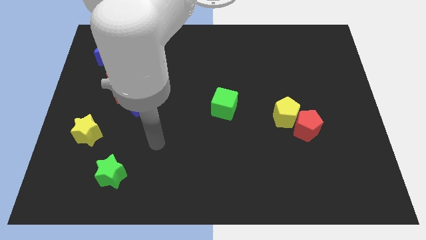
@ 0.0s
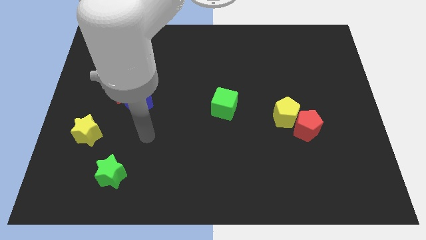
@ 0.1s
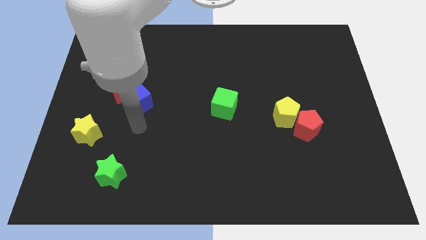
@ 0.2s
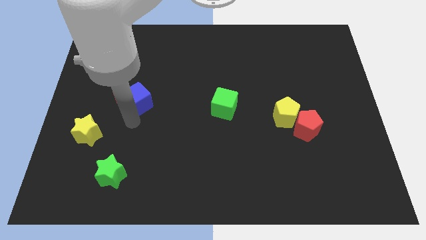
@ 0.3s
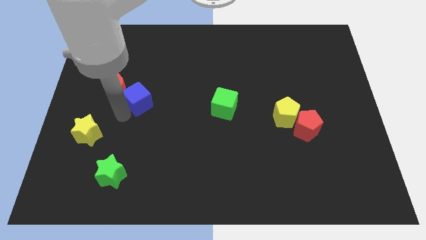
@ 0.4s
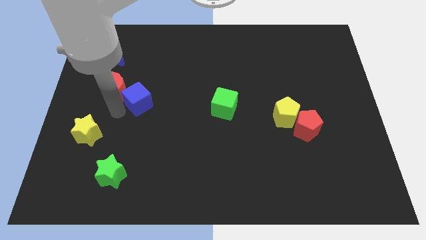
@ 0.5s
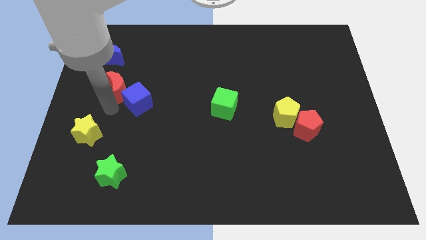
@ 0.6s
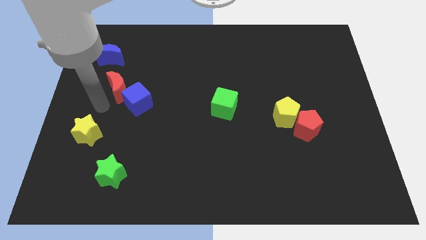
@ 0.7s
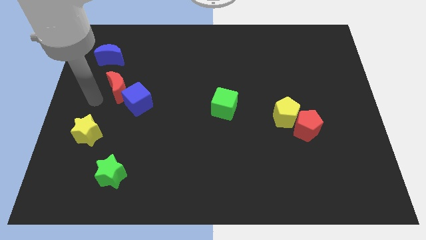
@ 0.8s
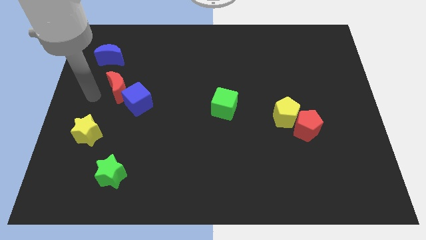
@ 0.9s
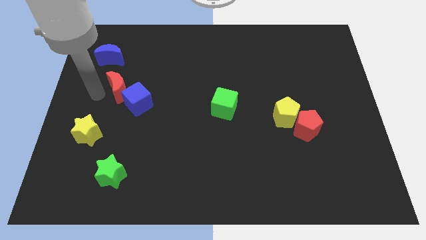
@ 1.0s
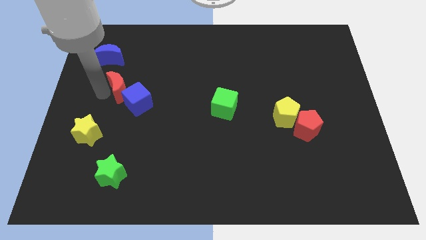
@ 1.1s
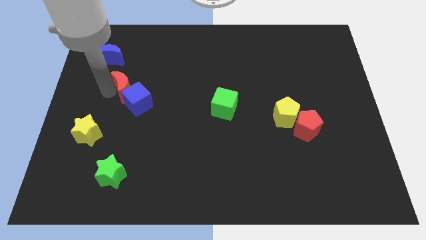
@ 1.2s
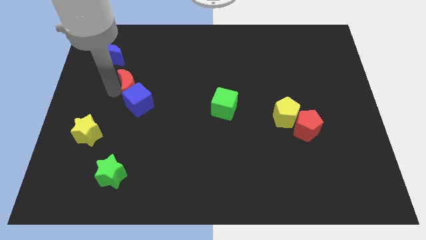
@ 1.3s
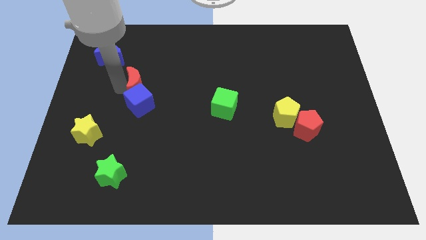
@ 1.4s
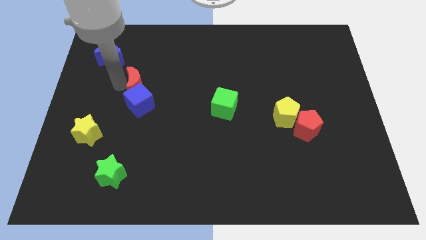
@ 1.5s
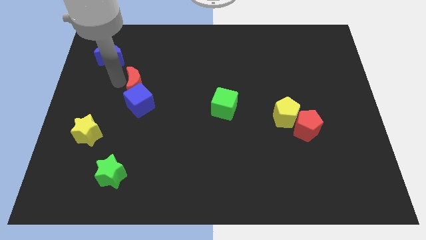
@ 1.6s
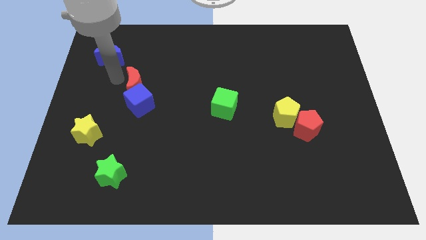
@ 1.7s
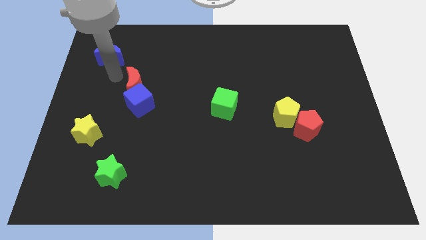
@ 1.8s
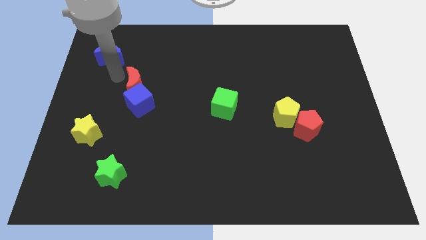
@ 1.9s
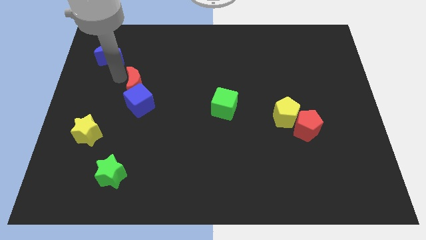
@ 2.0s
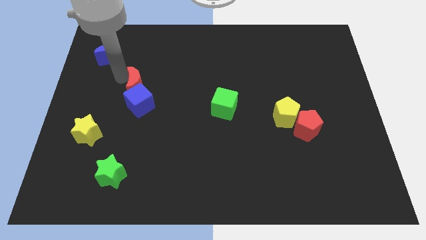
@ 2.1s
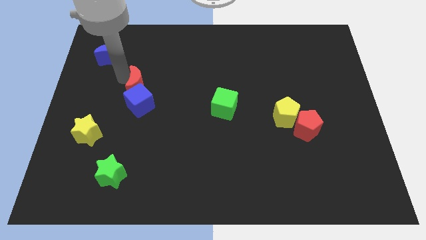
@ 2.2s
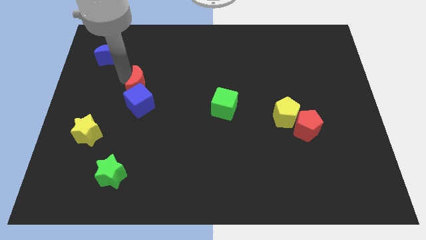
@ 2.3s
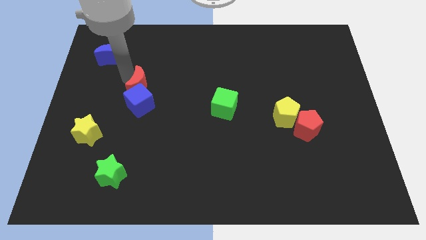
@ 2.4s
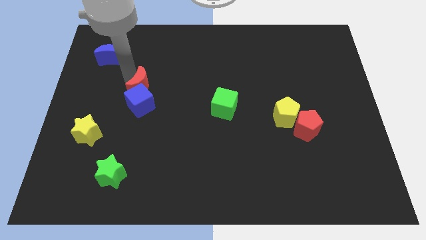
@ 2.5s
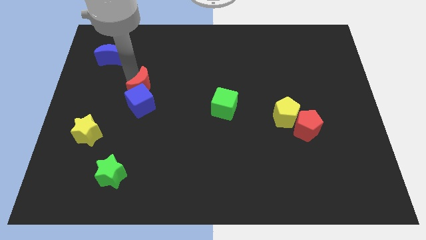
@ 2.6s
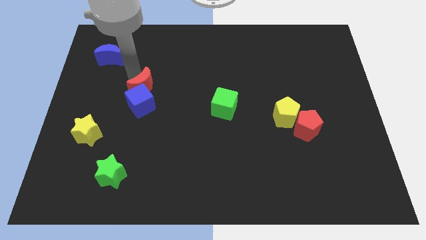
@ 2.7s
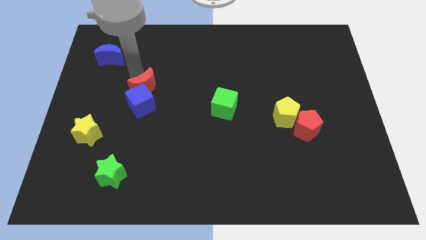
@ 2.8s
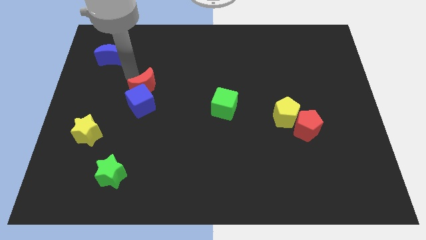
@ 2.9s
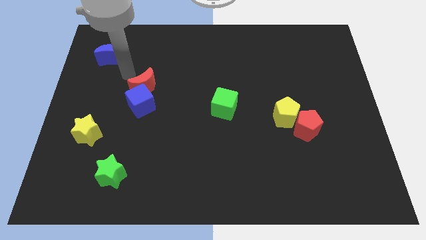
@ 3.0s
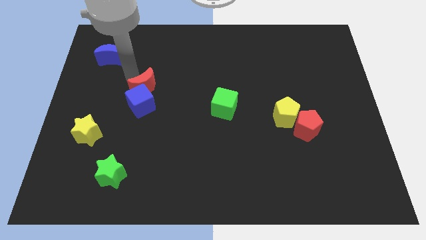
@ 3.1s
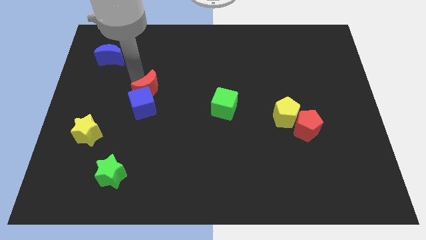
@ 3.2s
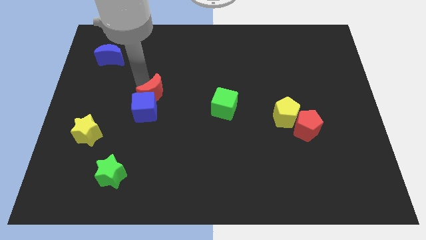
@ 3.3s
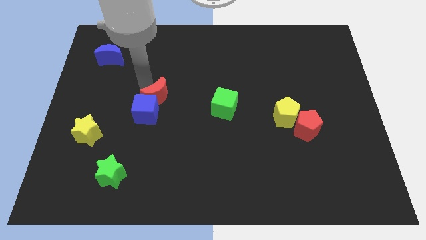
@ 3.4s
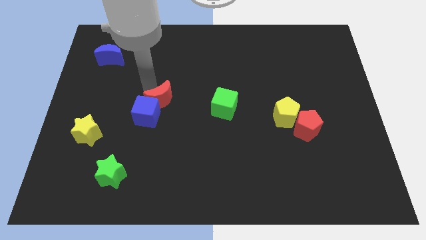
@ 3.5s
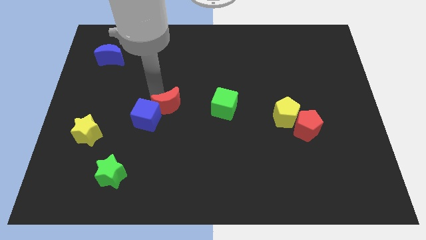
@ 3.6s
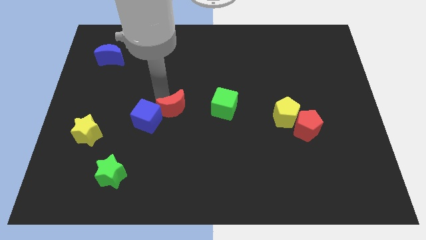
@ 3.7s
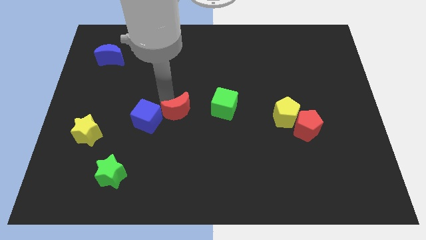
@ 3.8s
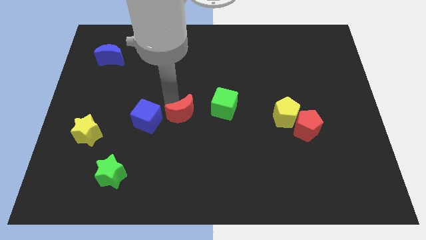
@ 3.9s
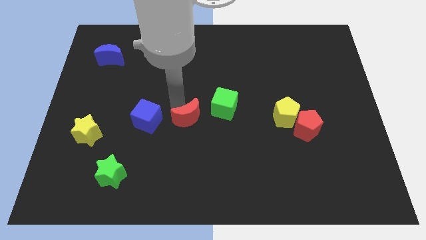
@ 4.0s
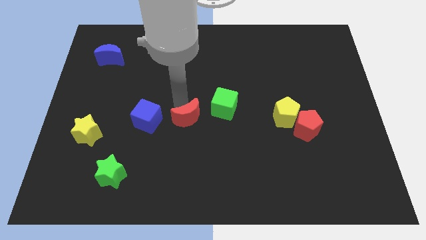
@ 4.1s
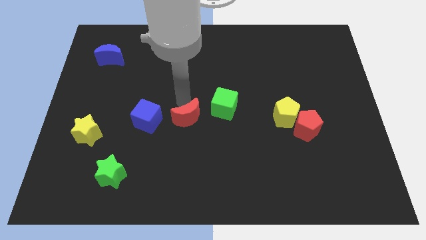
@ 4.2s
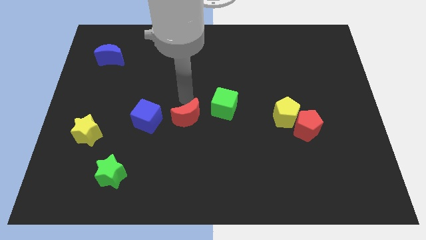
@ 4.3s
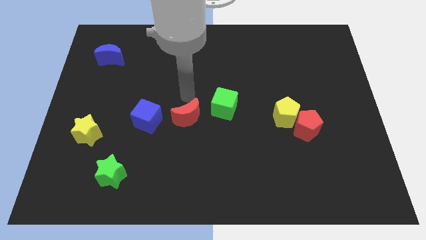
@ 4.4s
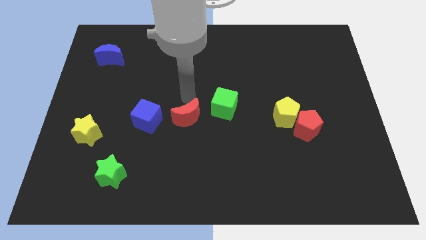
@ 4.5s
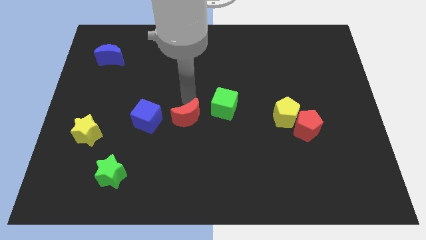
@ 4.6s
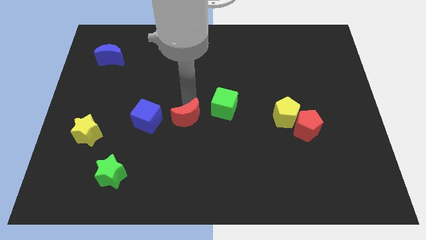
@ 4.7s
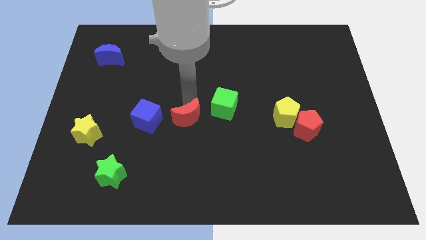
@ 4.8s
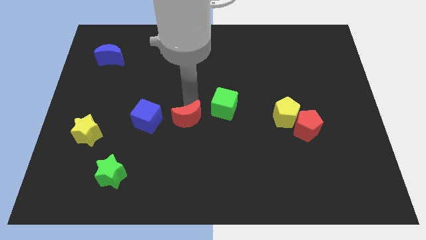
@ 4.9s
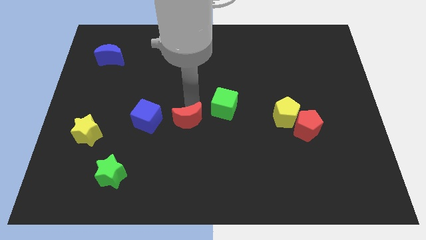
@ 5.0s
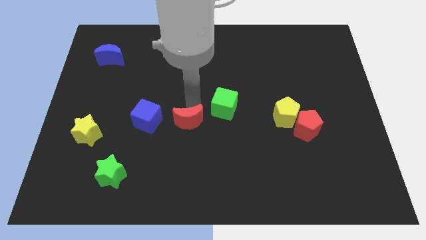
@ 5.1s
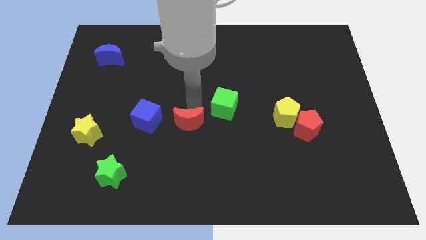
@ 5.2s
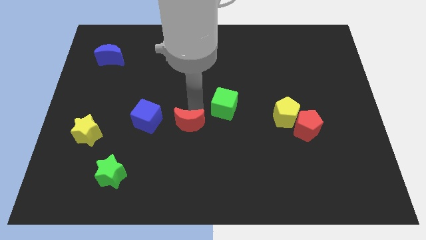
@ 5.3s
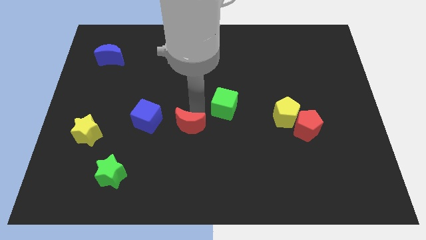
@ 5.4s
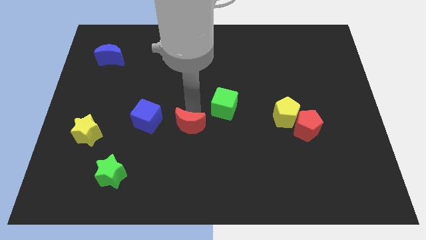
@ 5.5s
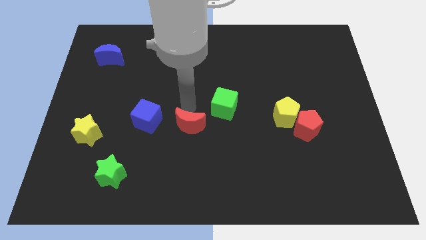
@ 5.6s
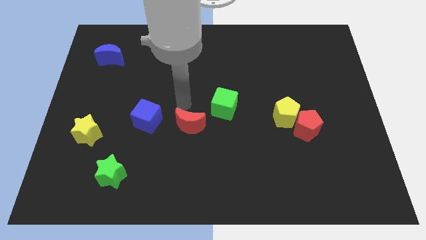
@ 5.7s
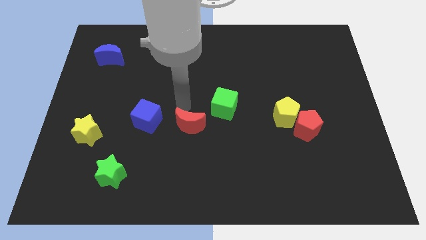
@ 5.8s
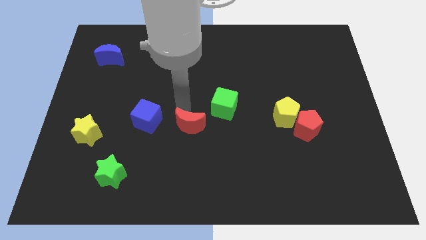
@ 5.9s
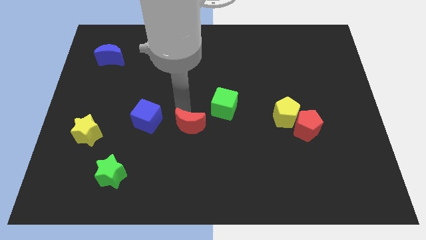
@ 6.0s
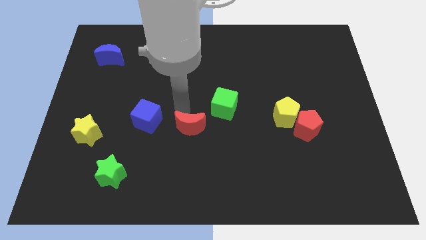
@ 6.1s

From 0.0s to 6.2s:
move the red moon diagonally downwards and right

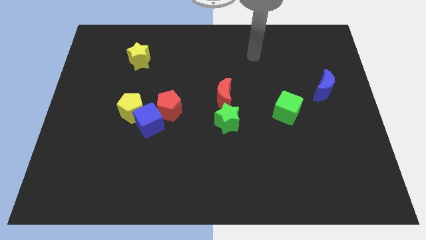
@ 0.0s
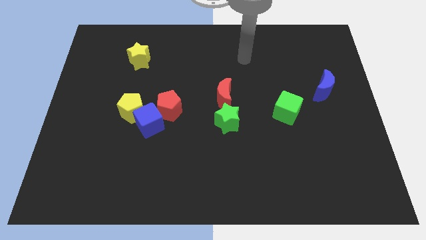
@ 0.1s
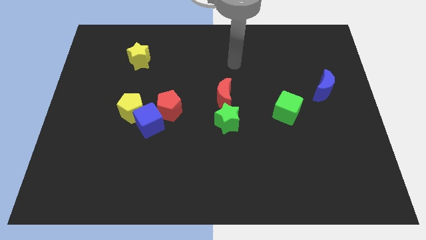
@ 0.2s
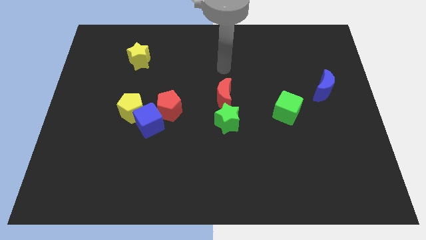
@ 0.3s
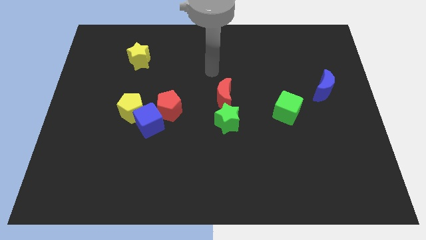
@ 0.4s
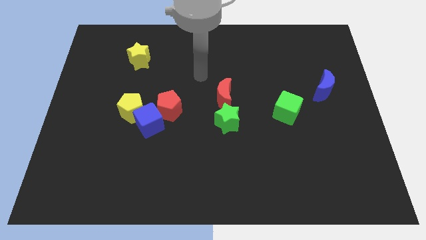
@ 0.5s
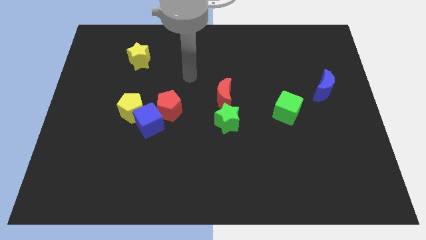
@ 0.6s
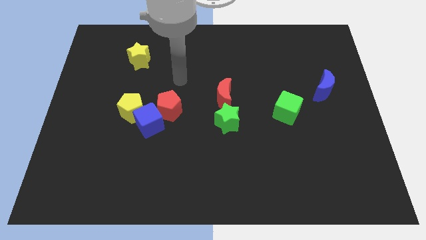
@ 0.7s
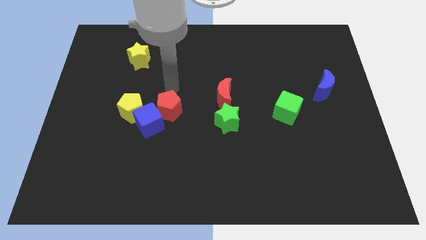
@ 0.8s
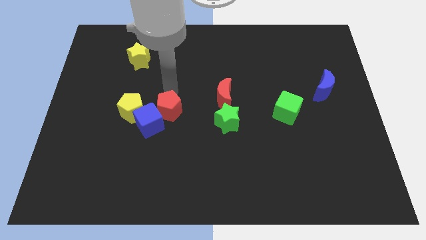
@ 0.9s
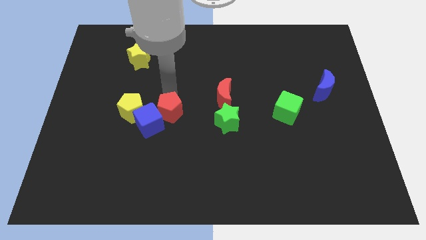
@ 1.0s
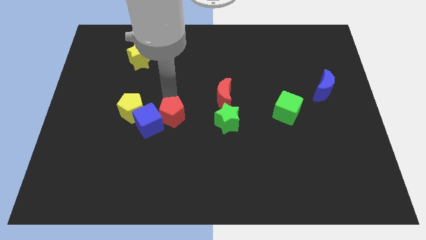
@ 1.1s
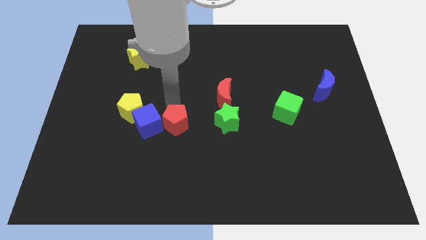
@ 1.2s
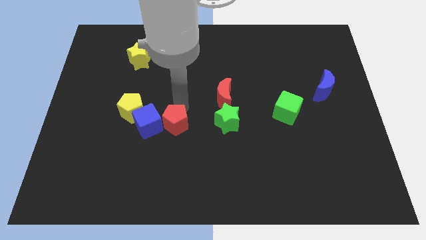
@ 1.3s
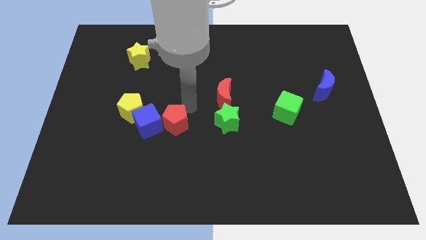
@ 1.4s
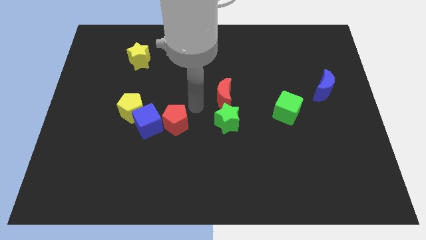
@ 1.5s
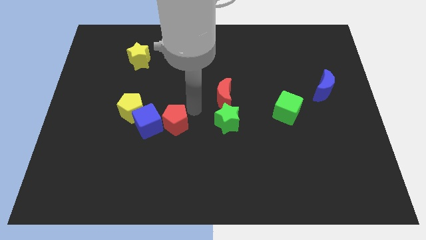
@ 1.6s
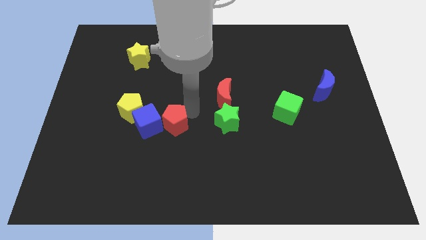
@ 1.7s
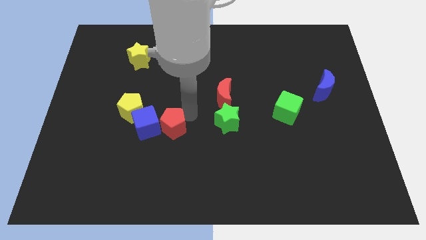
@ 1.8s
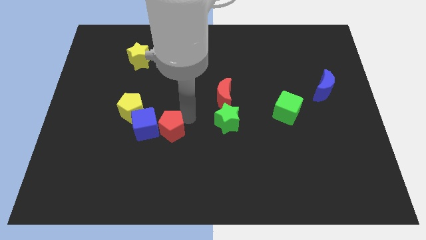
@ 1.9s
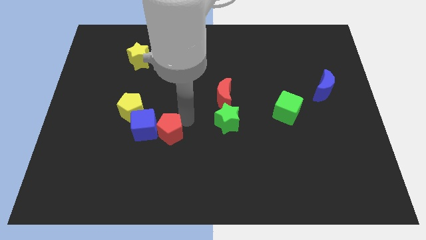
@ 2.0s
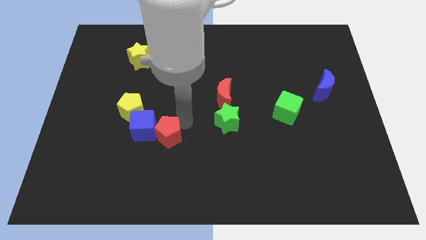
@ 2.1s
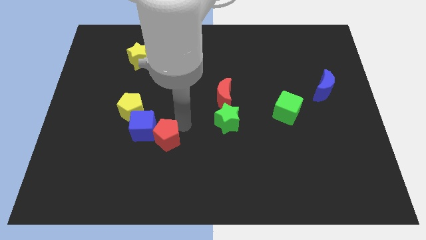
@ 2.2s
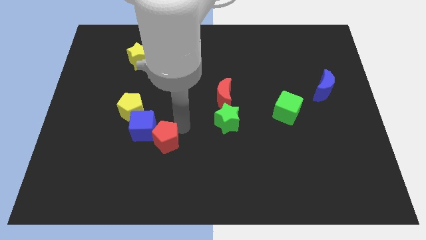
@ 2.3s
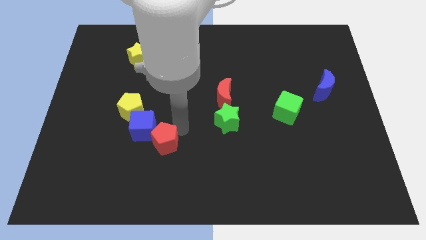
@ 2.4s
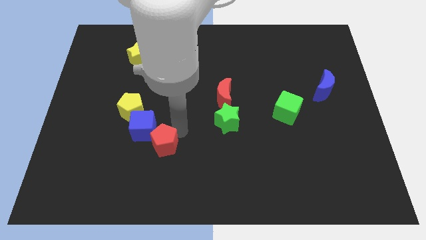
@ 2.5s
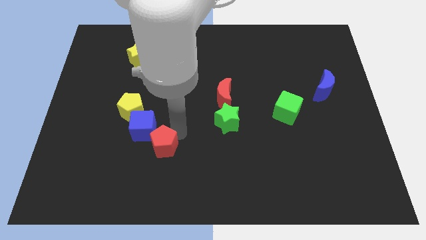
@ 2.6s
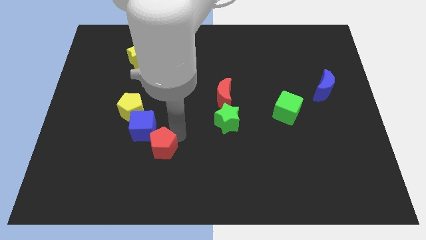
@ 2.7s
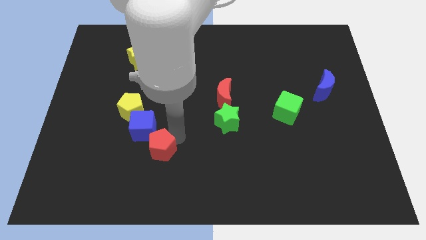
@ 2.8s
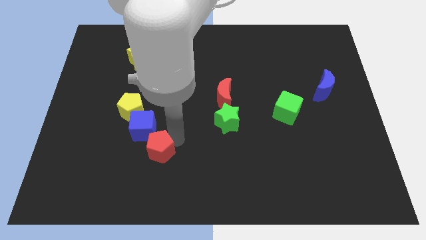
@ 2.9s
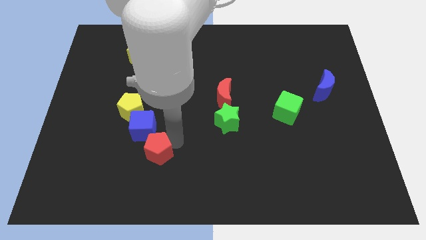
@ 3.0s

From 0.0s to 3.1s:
move the red pentagon slightly downwards and left
